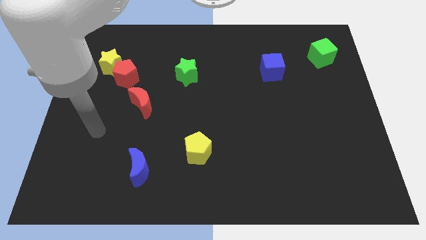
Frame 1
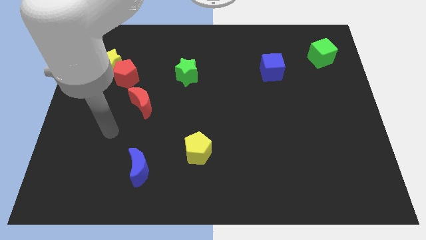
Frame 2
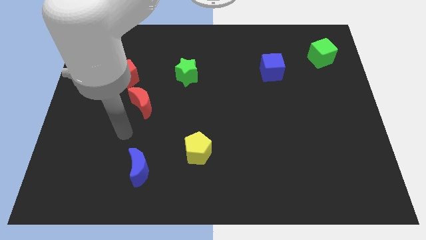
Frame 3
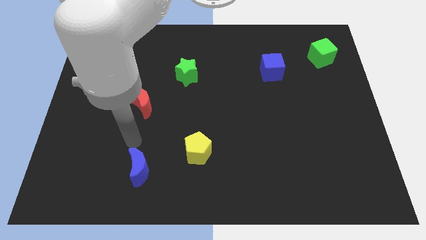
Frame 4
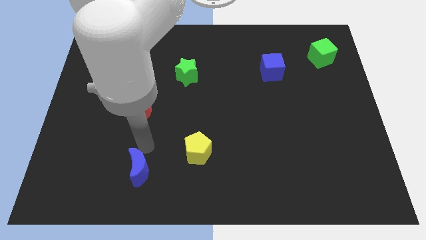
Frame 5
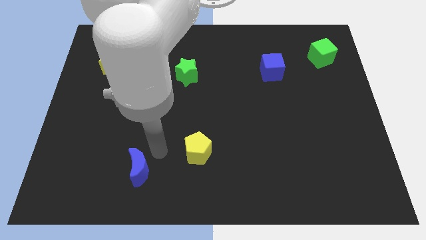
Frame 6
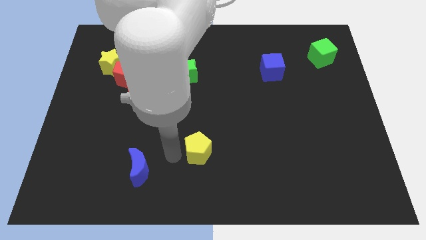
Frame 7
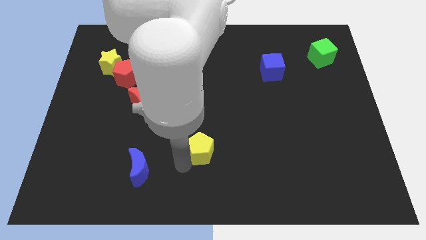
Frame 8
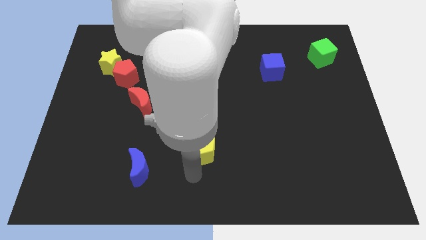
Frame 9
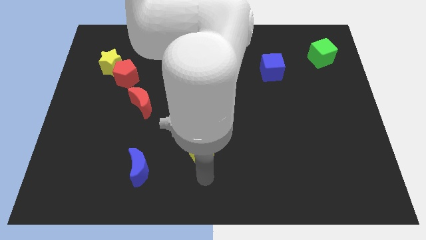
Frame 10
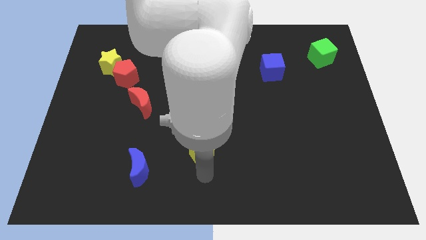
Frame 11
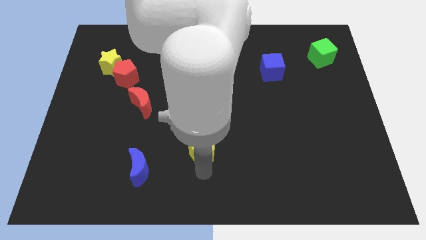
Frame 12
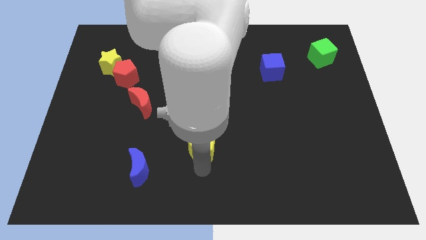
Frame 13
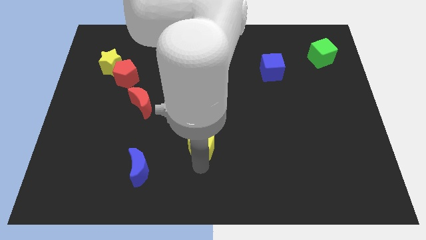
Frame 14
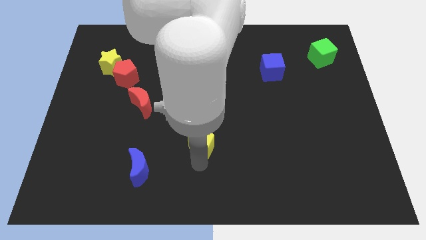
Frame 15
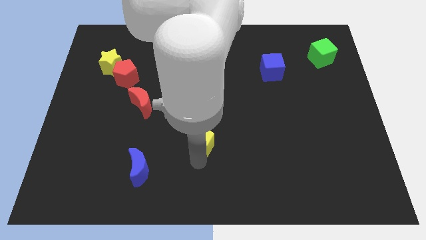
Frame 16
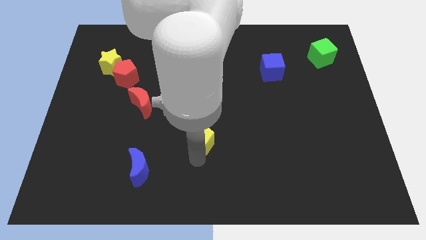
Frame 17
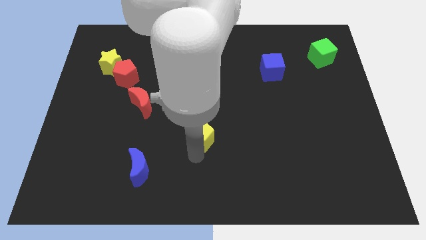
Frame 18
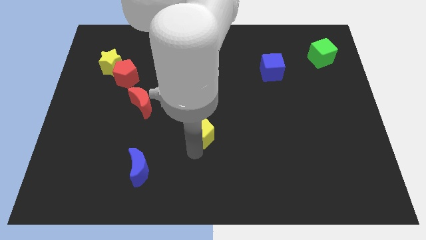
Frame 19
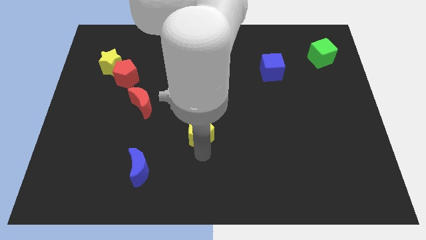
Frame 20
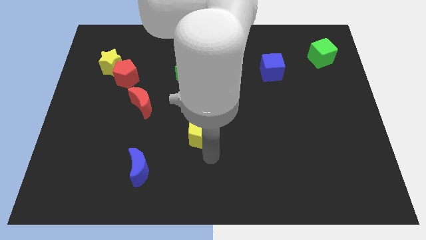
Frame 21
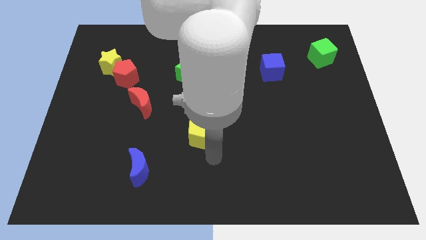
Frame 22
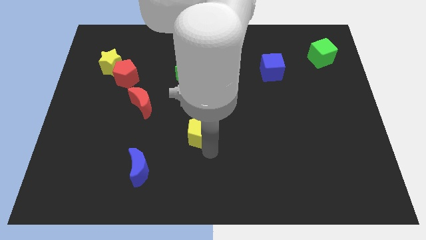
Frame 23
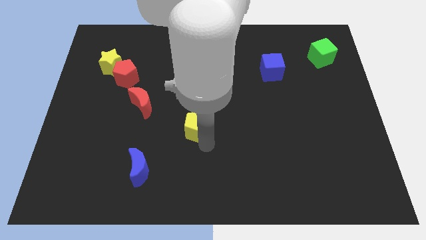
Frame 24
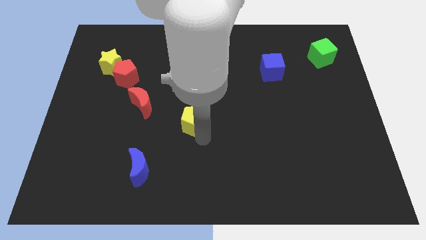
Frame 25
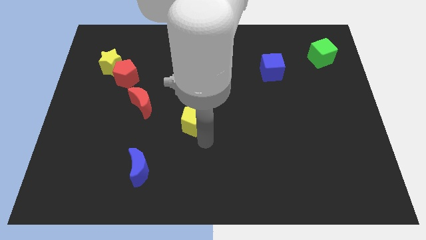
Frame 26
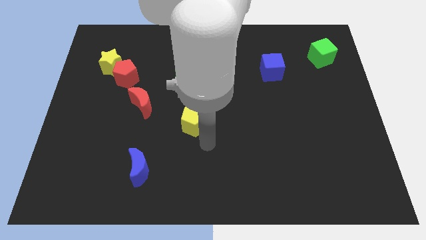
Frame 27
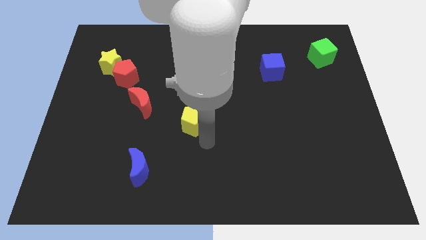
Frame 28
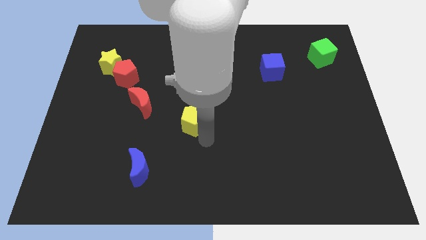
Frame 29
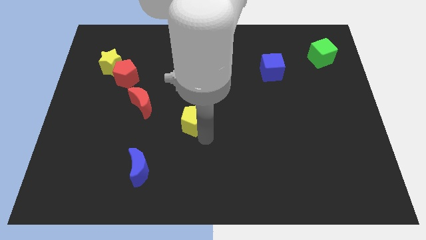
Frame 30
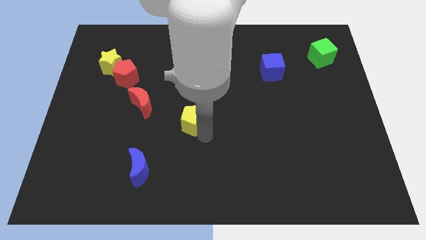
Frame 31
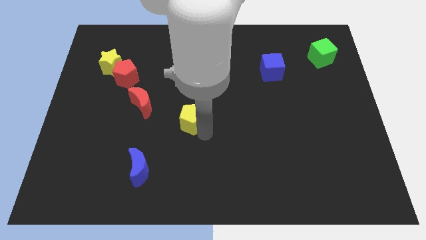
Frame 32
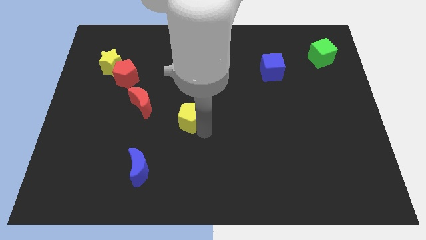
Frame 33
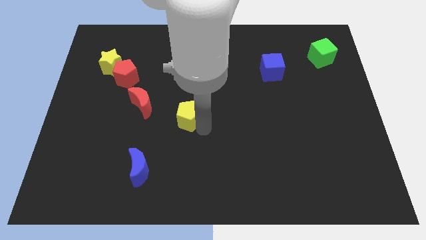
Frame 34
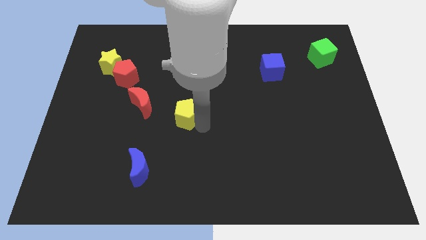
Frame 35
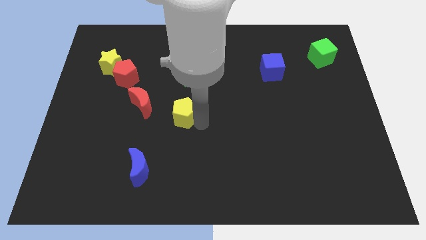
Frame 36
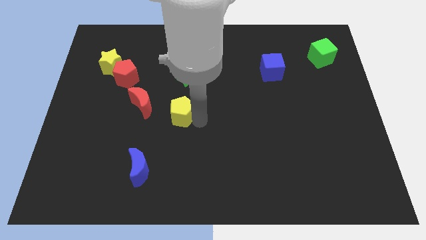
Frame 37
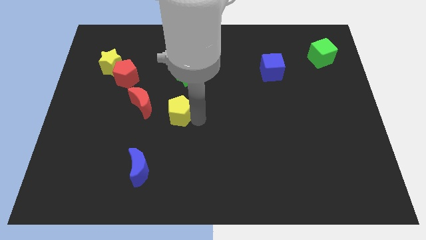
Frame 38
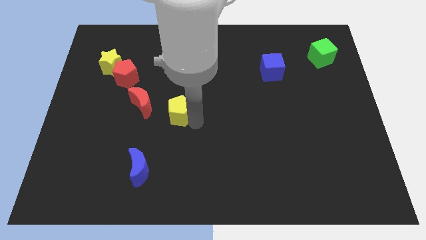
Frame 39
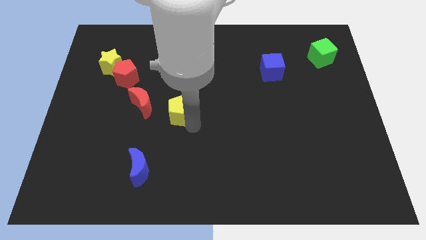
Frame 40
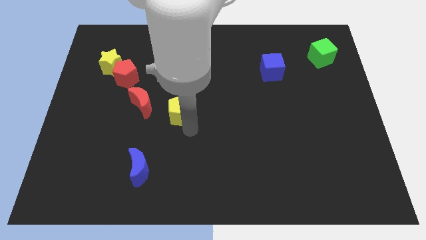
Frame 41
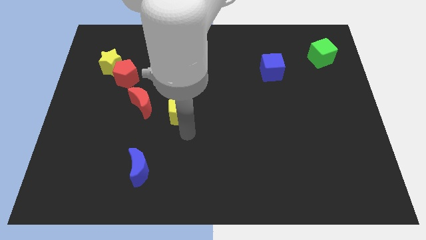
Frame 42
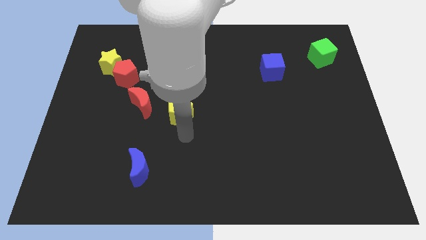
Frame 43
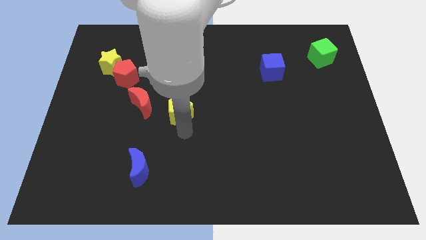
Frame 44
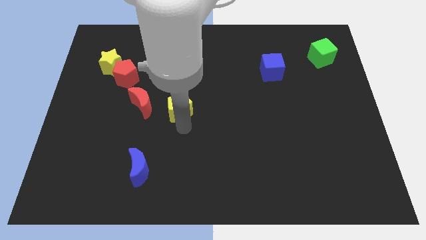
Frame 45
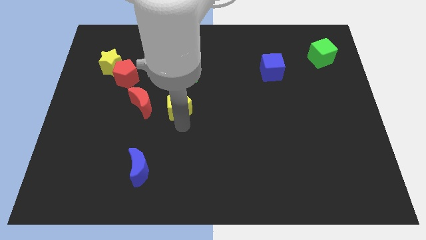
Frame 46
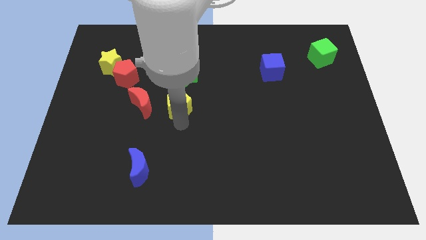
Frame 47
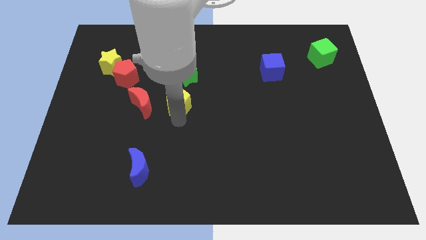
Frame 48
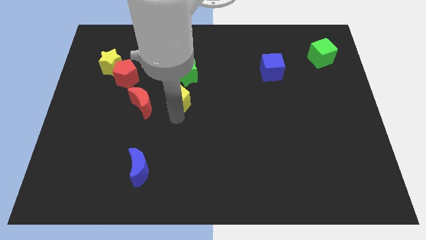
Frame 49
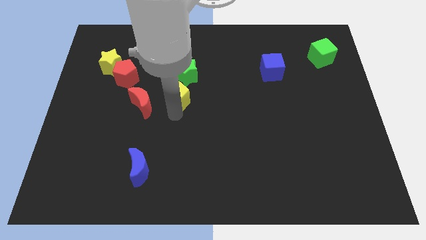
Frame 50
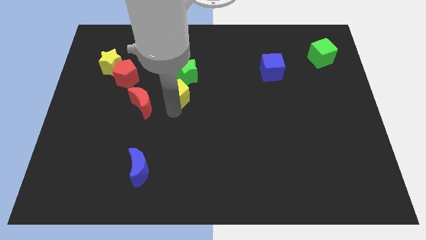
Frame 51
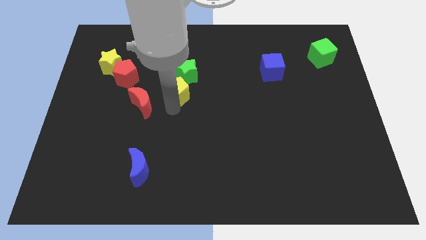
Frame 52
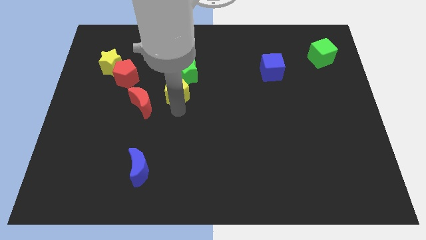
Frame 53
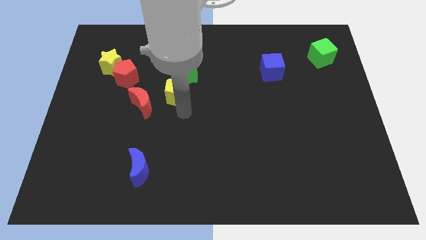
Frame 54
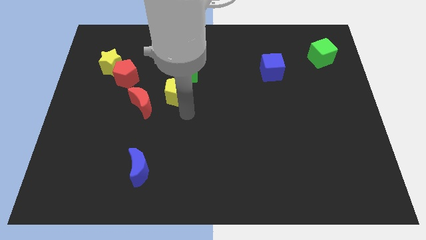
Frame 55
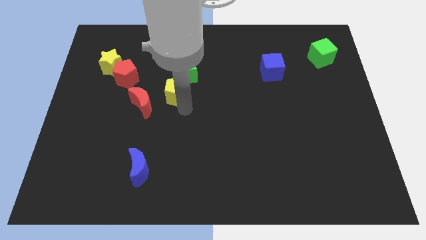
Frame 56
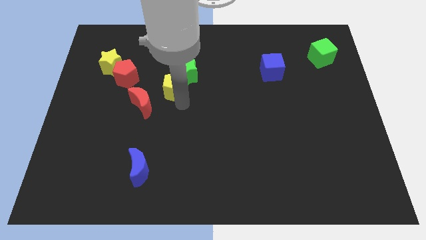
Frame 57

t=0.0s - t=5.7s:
slide the yellow pentagon right of the red pentagon

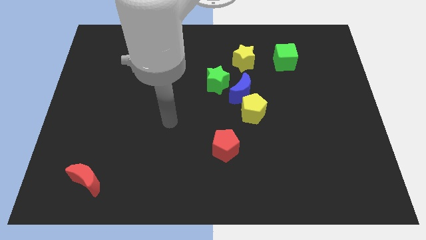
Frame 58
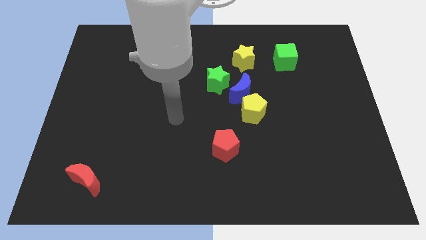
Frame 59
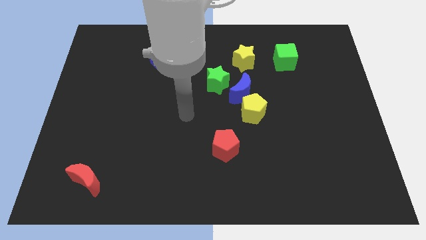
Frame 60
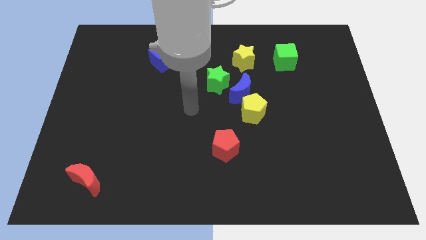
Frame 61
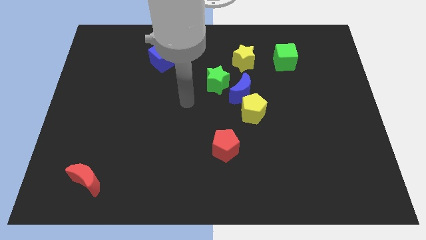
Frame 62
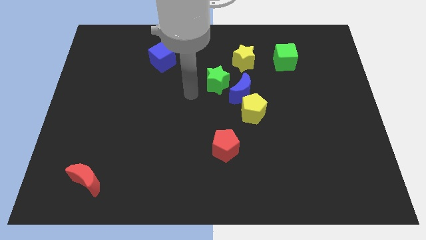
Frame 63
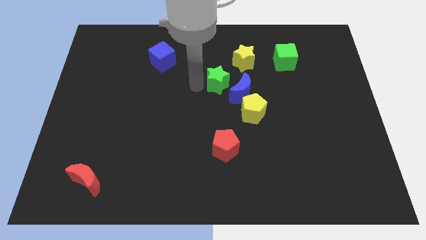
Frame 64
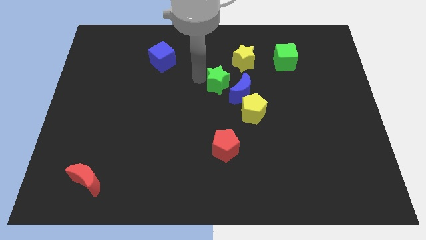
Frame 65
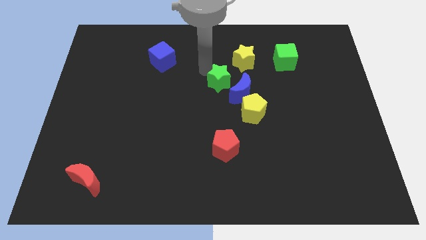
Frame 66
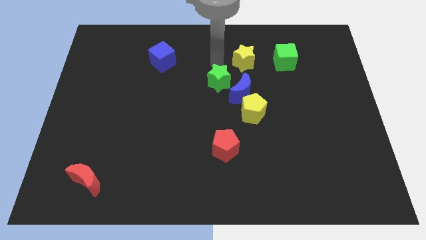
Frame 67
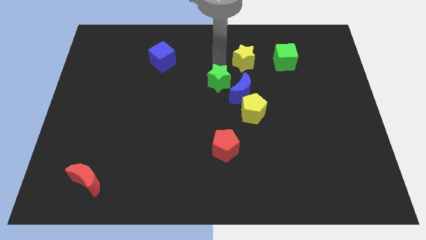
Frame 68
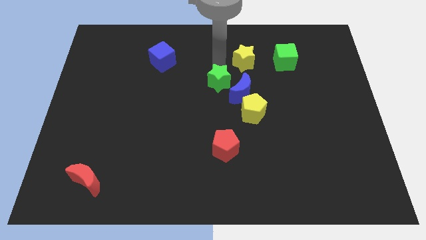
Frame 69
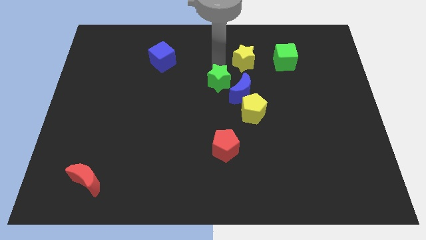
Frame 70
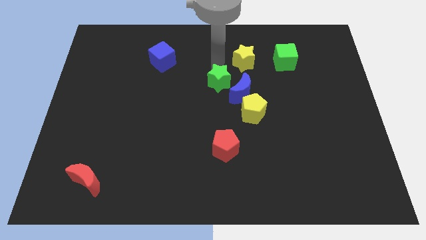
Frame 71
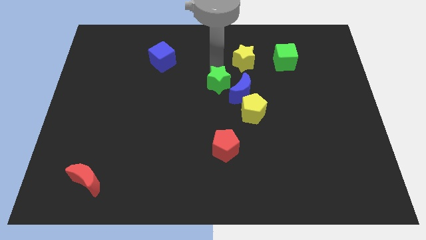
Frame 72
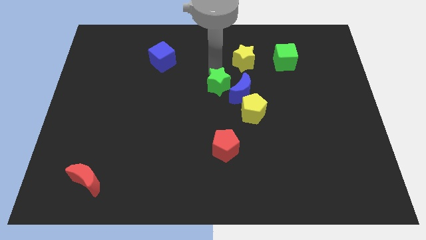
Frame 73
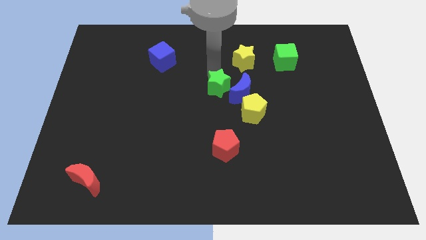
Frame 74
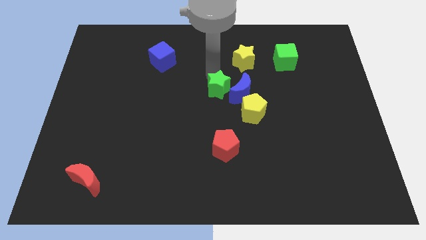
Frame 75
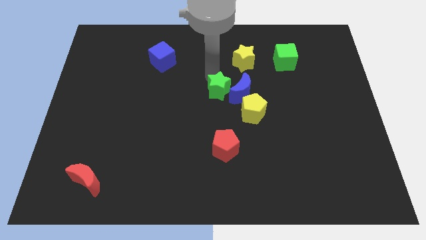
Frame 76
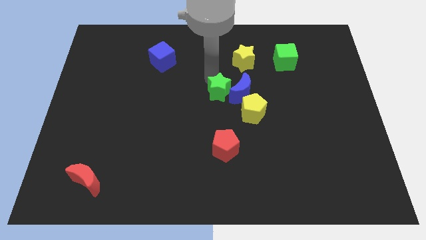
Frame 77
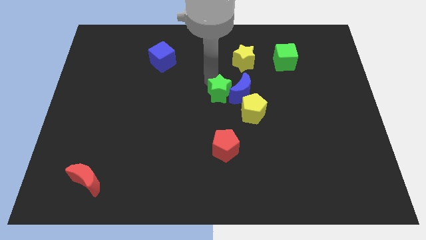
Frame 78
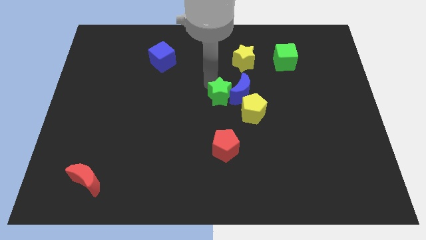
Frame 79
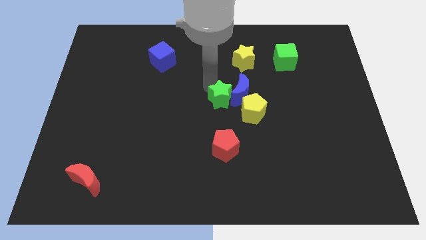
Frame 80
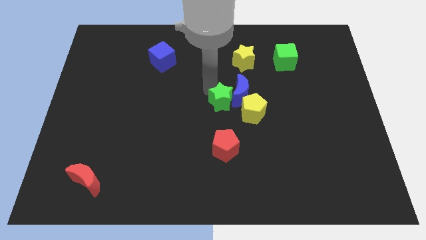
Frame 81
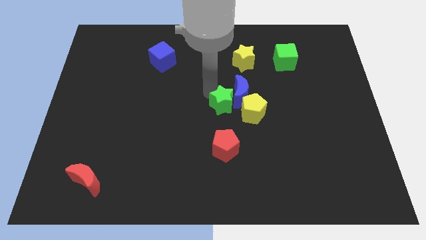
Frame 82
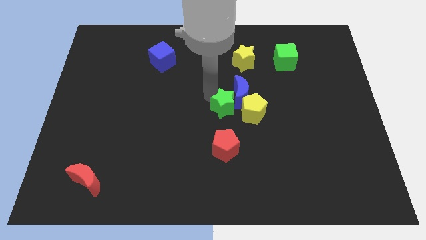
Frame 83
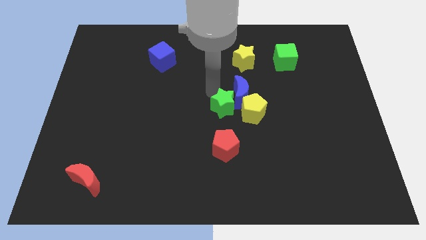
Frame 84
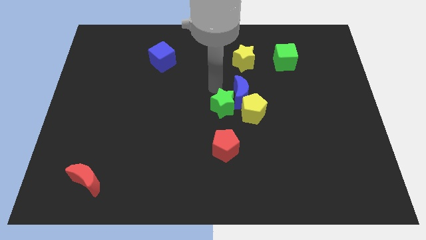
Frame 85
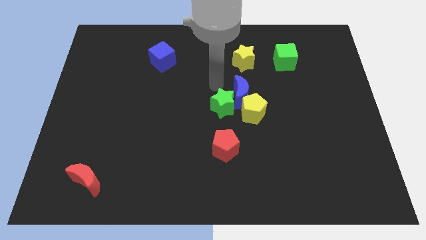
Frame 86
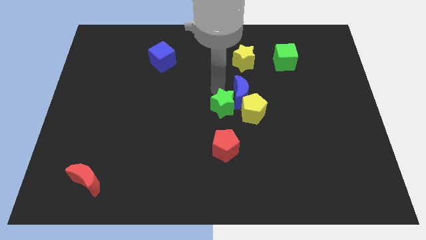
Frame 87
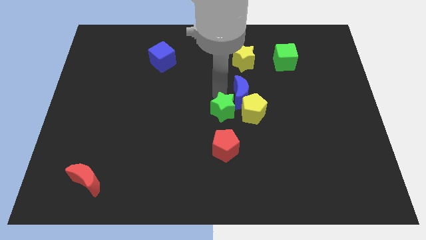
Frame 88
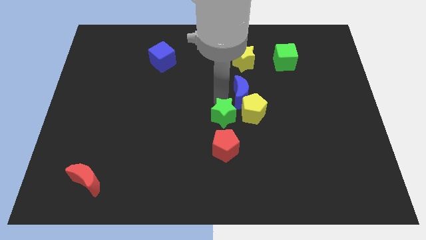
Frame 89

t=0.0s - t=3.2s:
move the green star to the bottom left side of the yellow pentagon
